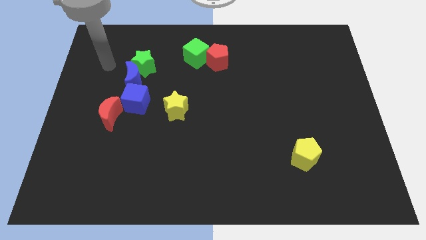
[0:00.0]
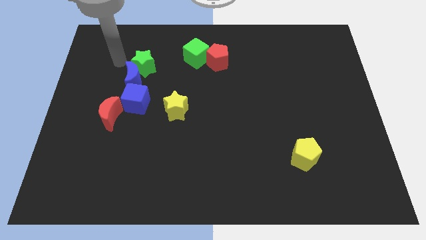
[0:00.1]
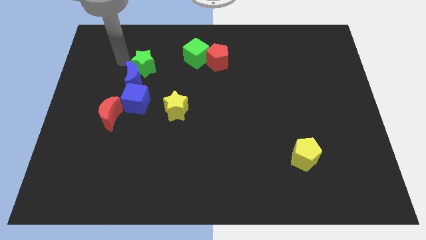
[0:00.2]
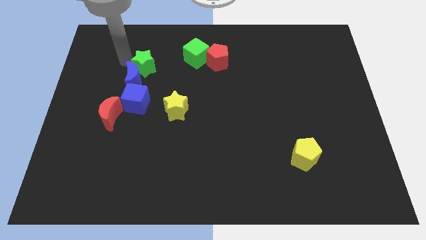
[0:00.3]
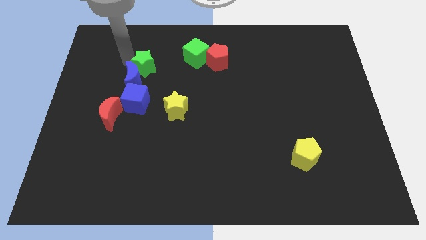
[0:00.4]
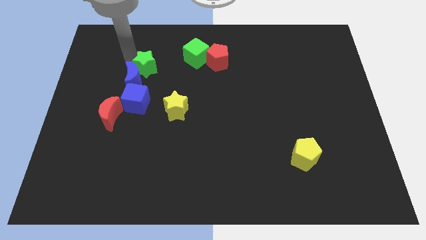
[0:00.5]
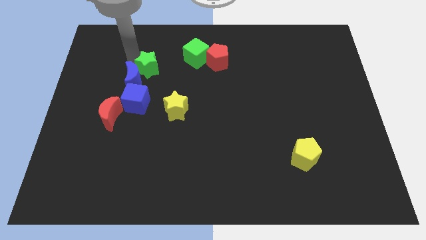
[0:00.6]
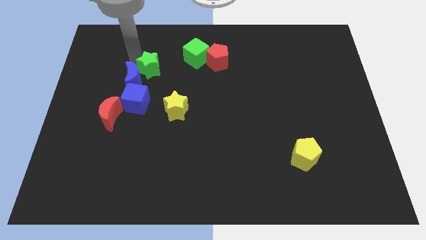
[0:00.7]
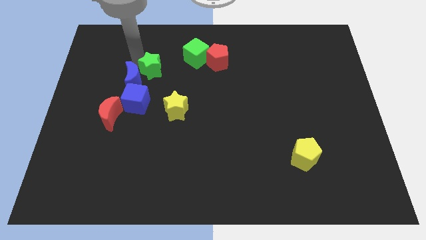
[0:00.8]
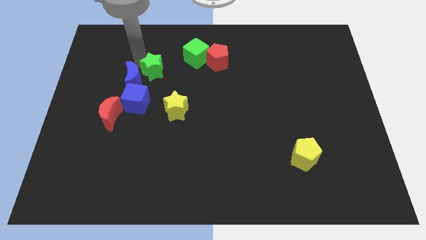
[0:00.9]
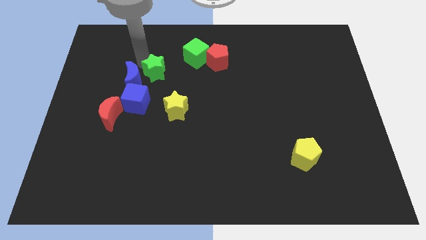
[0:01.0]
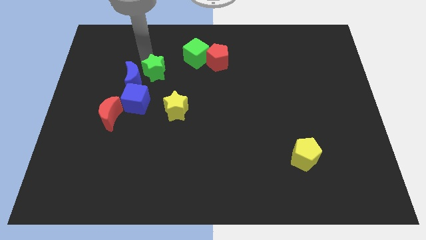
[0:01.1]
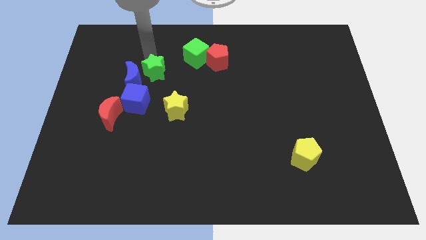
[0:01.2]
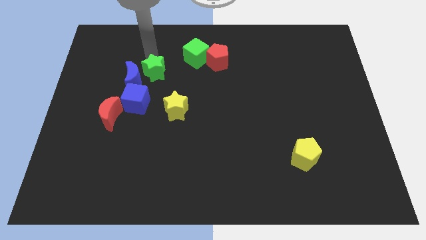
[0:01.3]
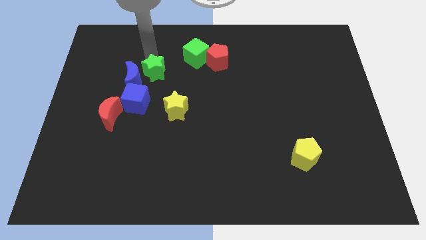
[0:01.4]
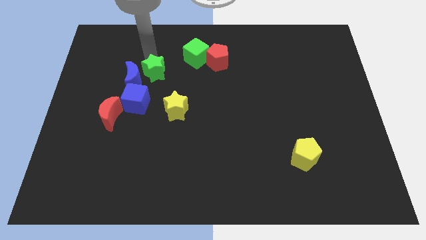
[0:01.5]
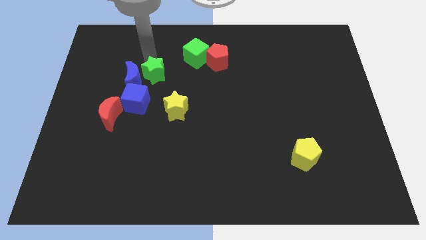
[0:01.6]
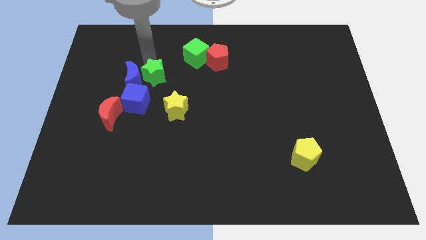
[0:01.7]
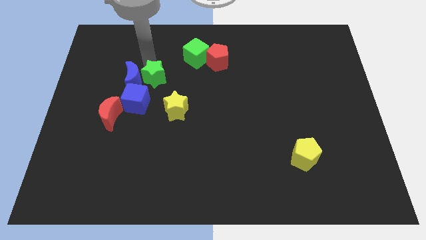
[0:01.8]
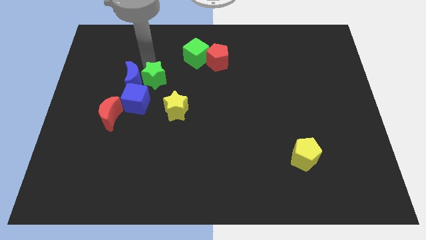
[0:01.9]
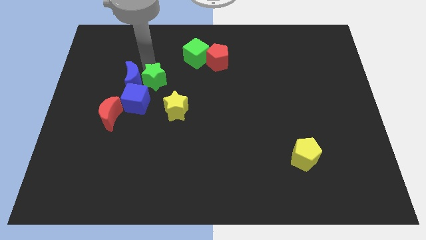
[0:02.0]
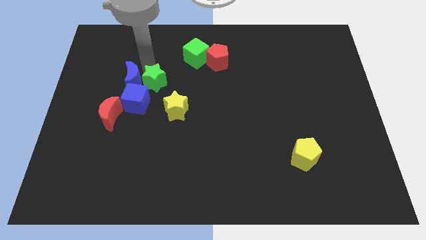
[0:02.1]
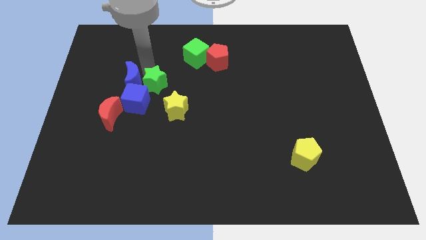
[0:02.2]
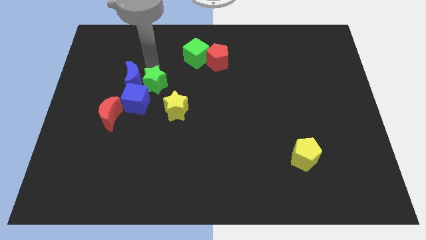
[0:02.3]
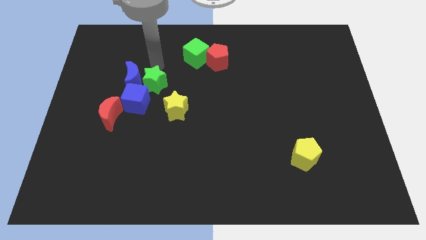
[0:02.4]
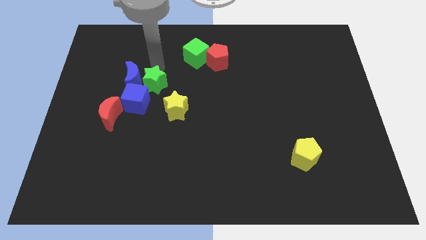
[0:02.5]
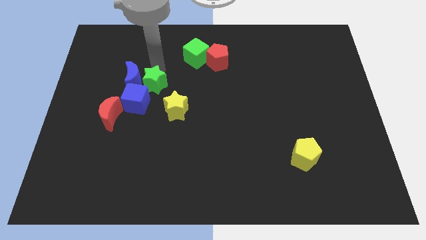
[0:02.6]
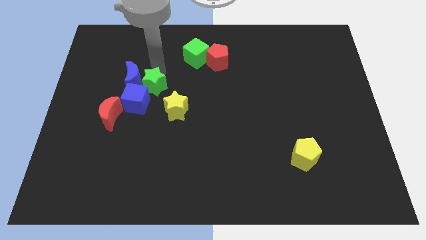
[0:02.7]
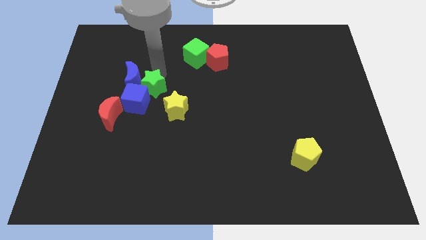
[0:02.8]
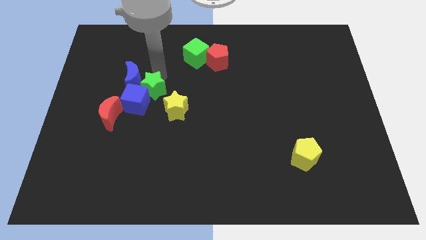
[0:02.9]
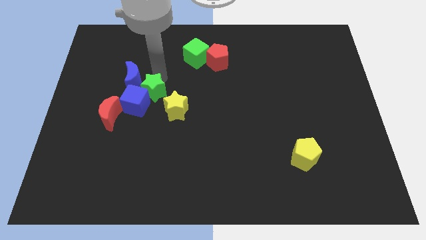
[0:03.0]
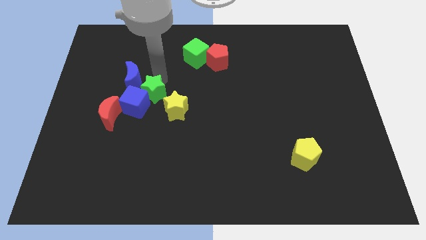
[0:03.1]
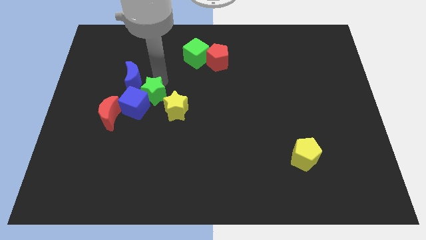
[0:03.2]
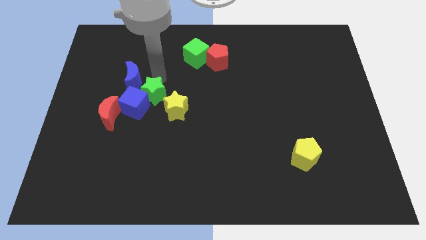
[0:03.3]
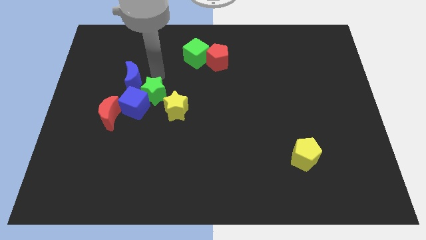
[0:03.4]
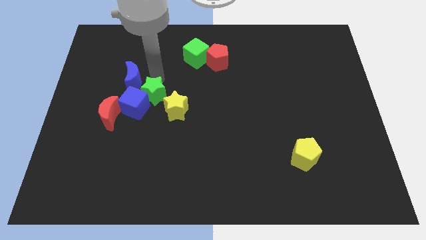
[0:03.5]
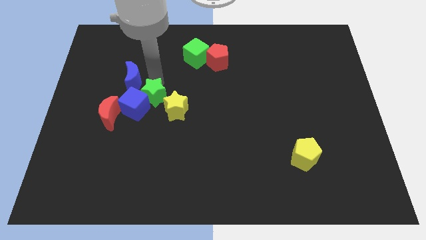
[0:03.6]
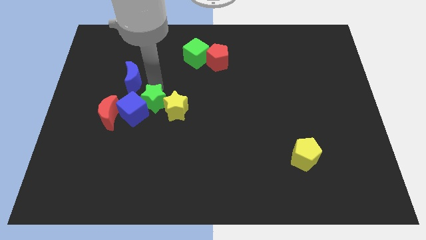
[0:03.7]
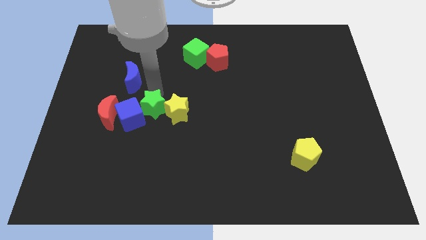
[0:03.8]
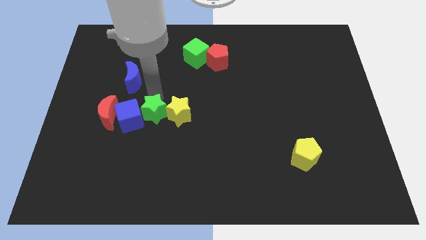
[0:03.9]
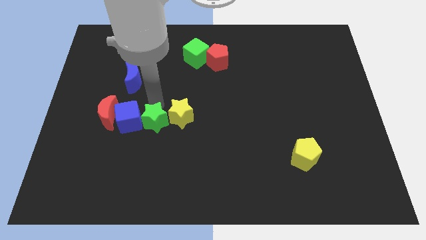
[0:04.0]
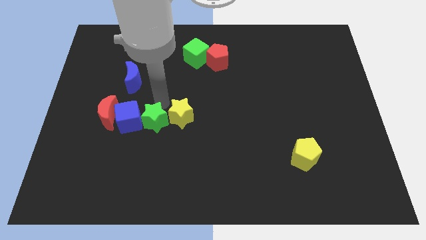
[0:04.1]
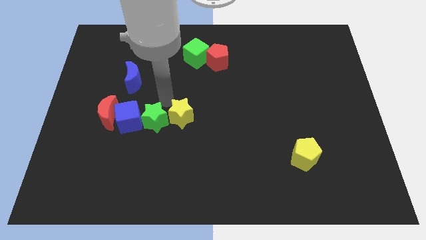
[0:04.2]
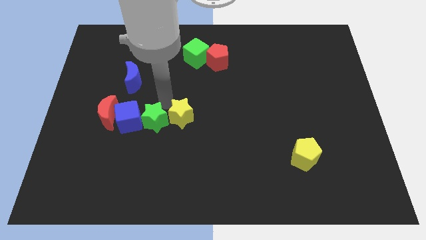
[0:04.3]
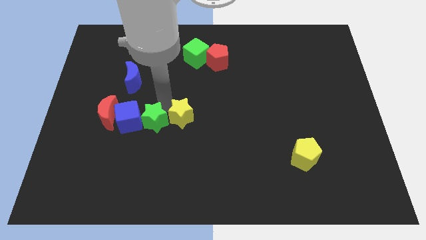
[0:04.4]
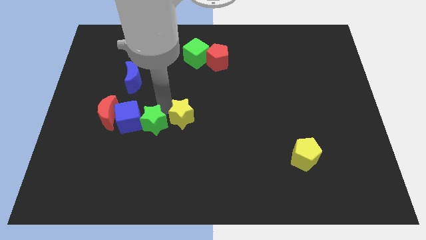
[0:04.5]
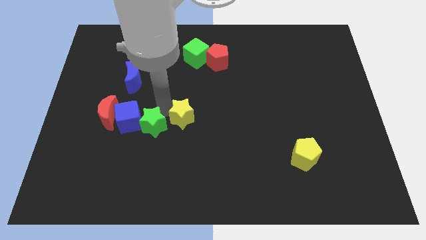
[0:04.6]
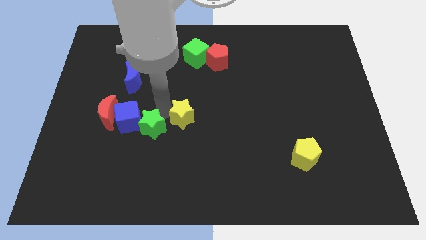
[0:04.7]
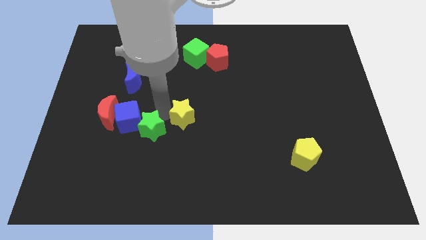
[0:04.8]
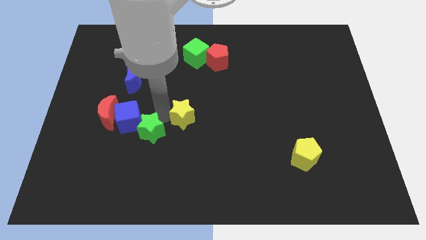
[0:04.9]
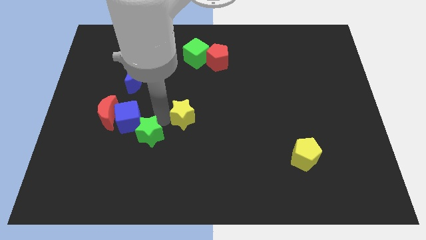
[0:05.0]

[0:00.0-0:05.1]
push the green star down

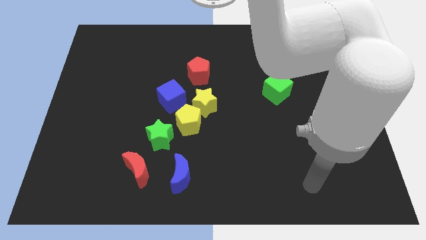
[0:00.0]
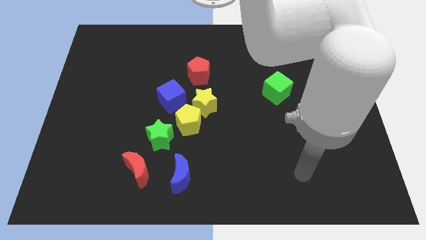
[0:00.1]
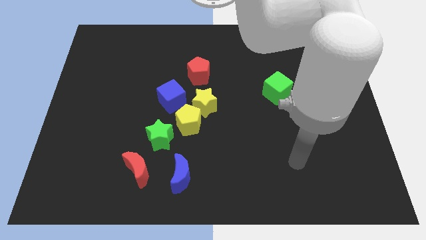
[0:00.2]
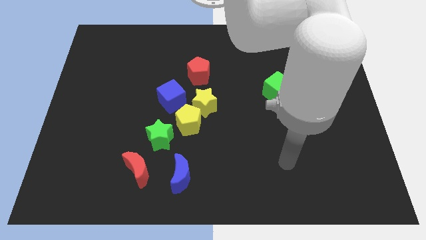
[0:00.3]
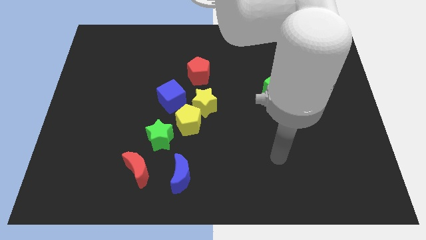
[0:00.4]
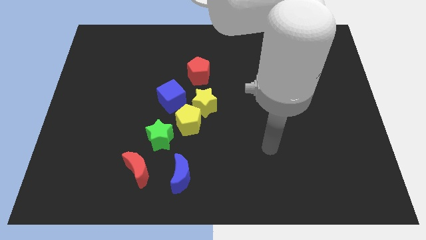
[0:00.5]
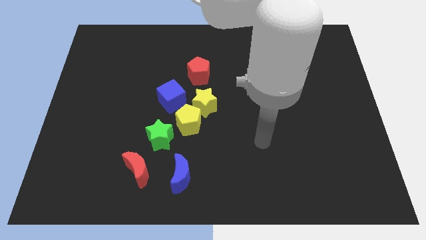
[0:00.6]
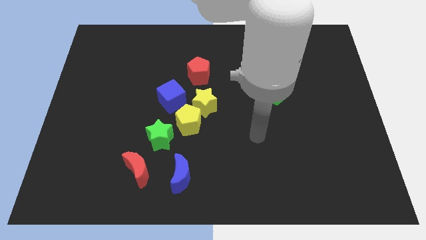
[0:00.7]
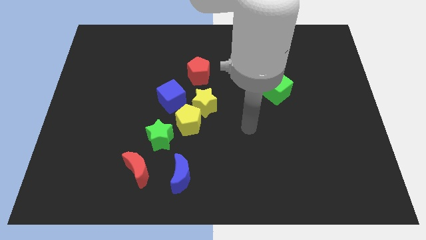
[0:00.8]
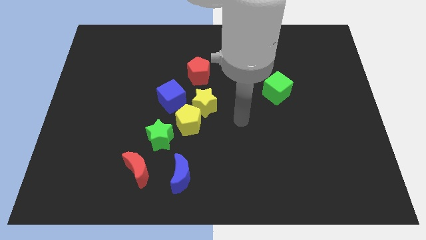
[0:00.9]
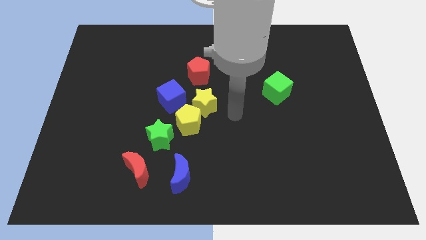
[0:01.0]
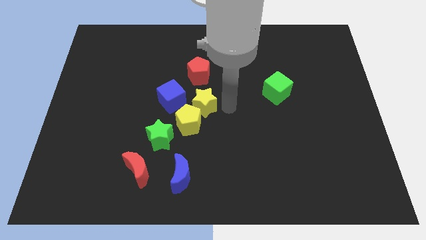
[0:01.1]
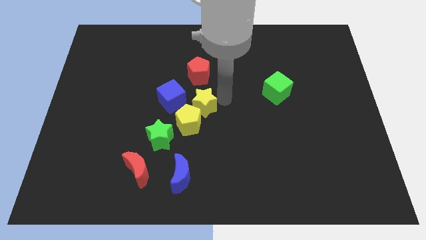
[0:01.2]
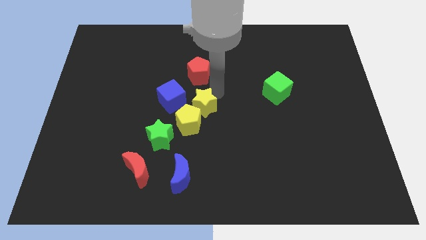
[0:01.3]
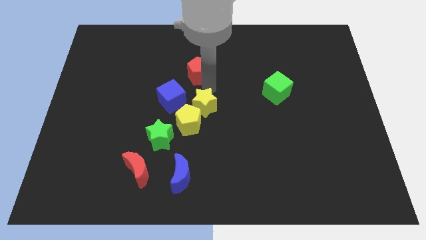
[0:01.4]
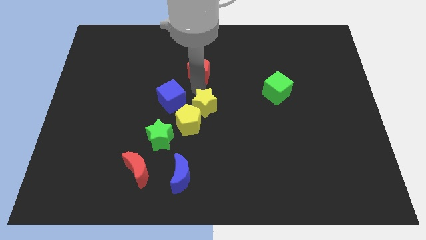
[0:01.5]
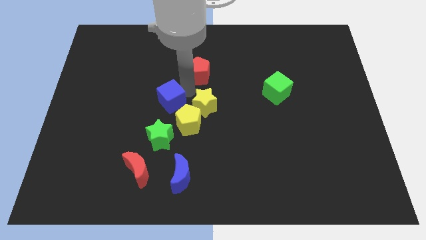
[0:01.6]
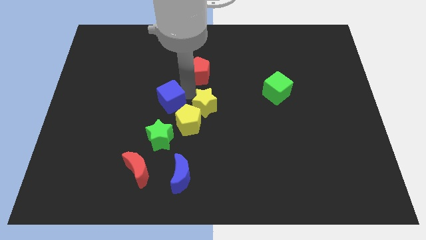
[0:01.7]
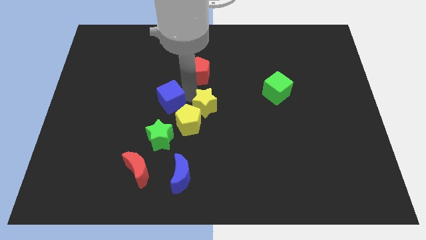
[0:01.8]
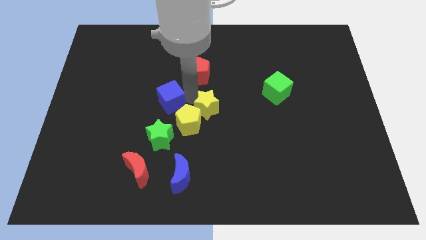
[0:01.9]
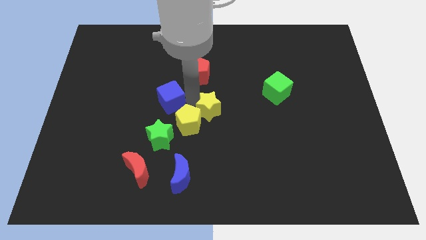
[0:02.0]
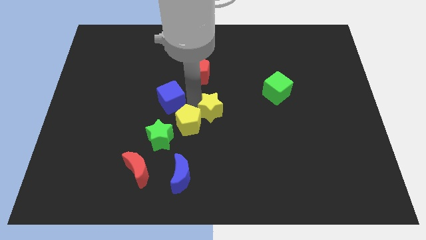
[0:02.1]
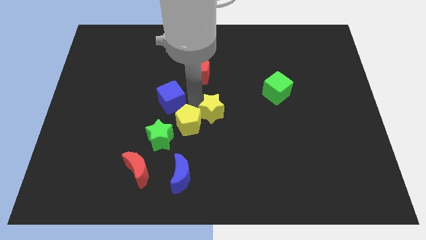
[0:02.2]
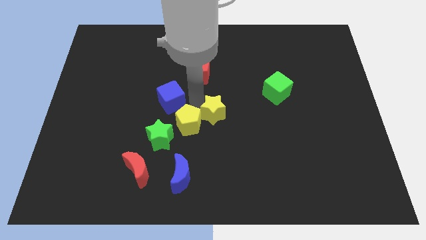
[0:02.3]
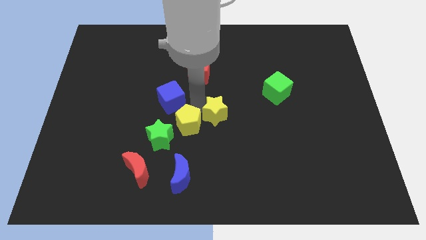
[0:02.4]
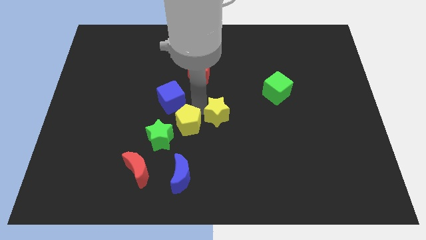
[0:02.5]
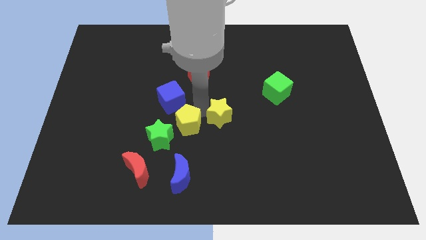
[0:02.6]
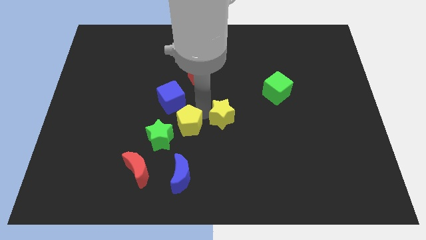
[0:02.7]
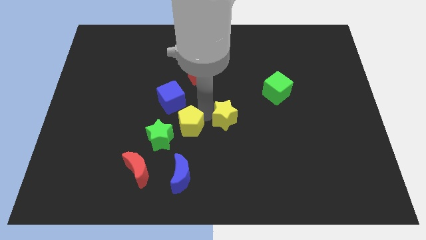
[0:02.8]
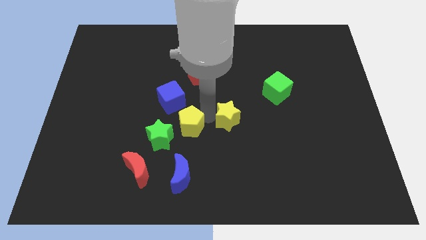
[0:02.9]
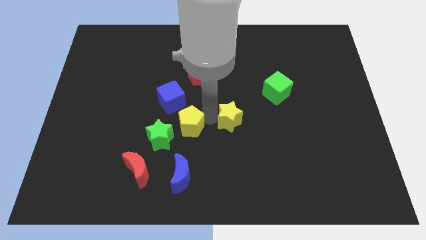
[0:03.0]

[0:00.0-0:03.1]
slide the yellow star downwards and right a little
